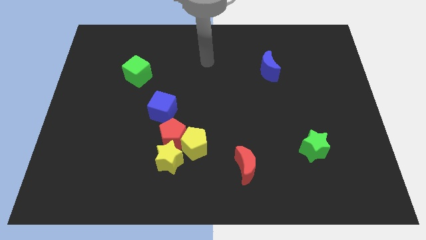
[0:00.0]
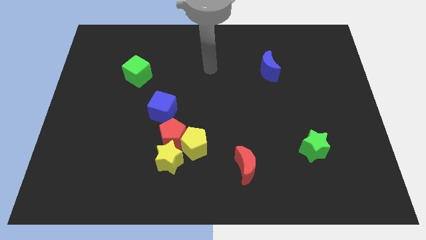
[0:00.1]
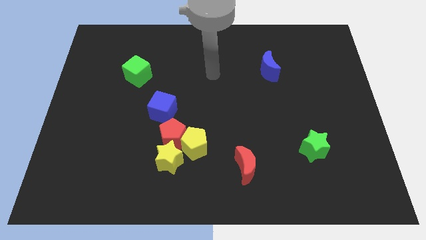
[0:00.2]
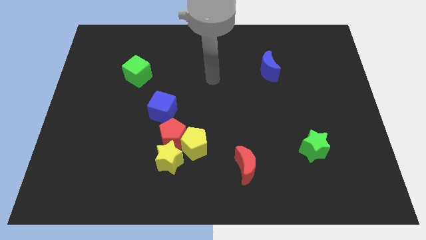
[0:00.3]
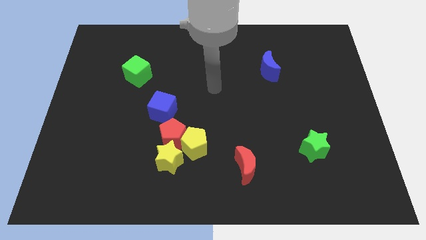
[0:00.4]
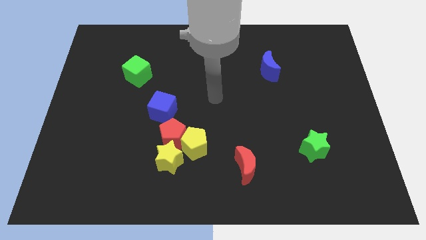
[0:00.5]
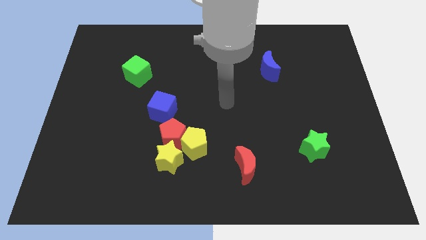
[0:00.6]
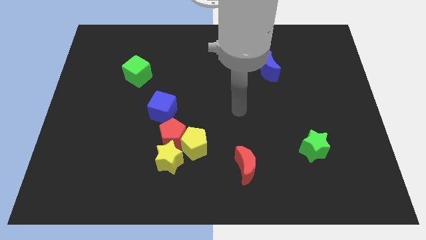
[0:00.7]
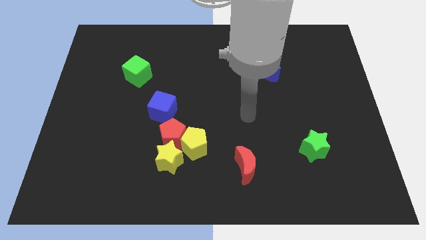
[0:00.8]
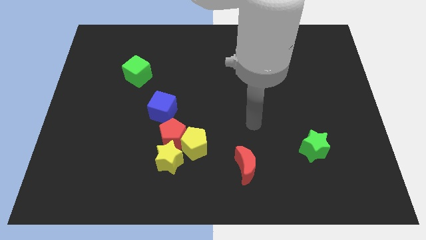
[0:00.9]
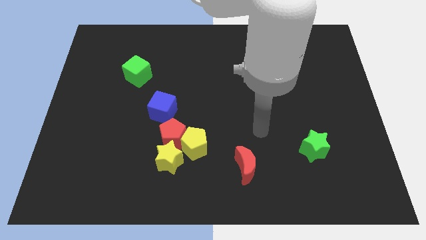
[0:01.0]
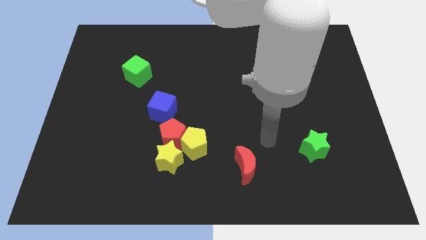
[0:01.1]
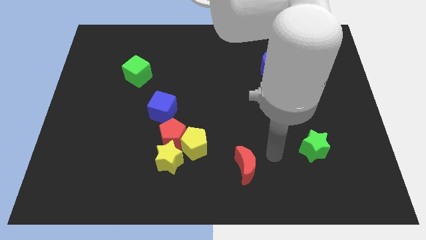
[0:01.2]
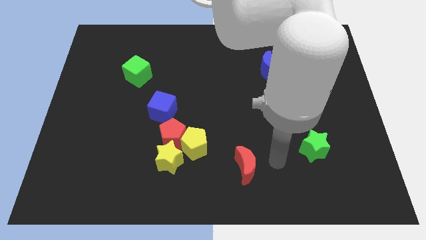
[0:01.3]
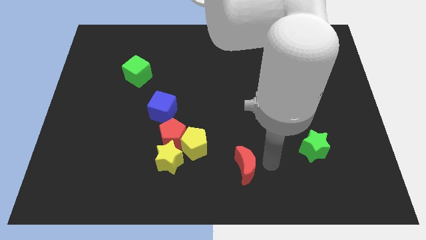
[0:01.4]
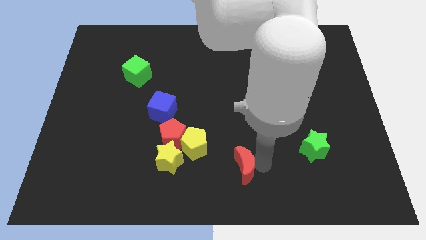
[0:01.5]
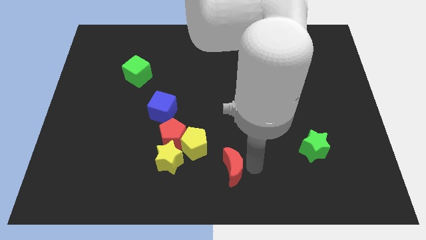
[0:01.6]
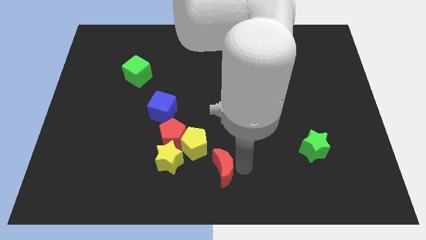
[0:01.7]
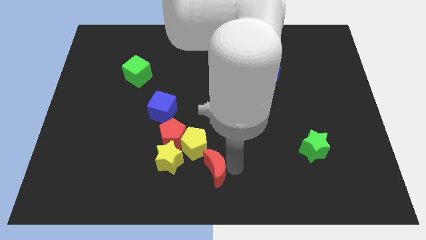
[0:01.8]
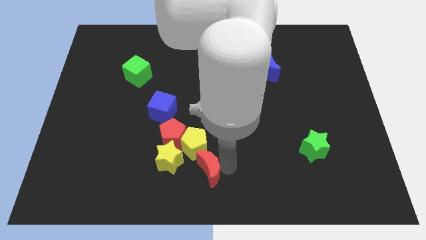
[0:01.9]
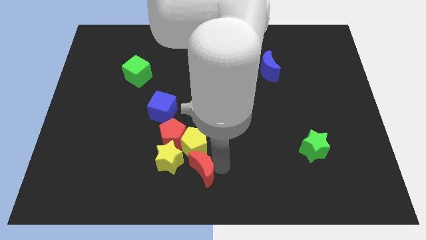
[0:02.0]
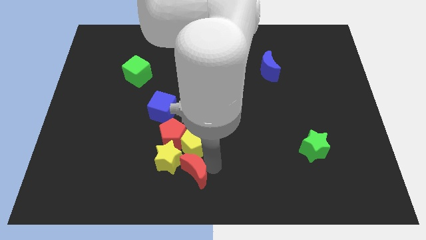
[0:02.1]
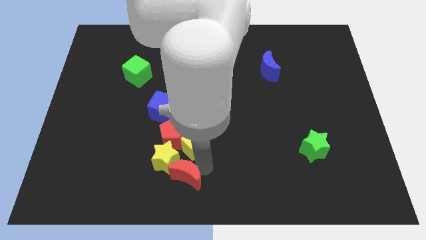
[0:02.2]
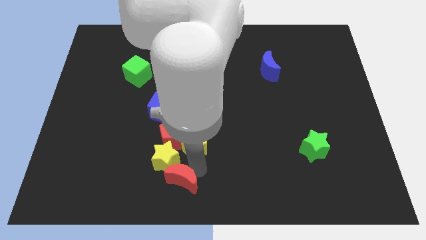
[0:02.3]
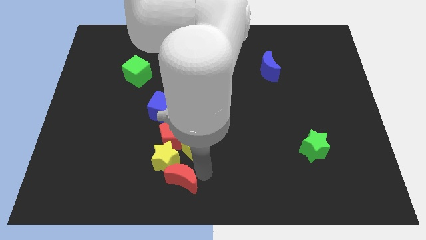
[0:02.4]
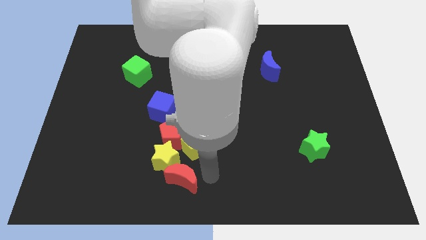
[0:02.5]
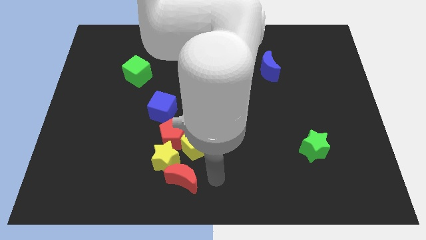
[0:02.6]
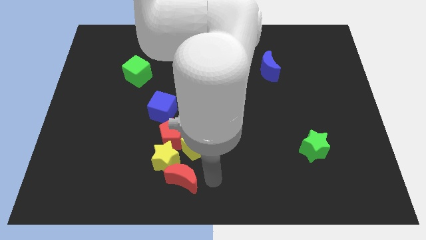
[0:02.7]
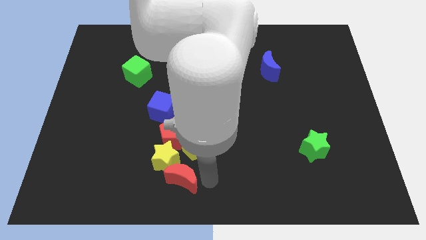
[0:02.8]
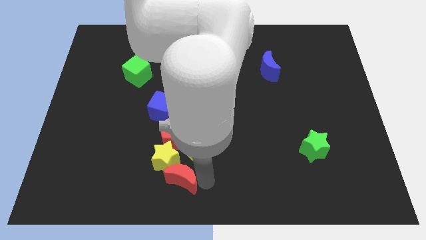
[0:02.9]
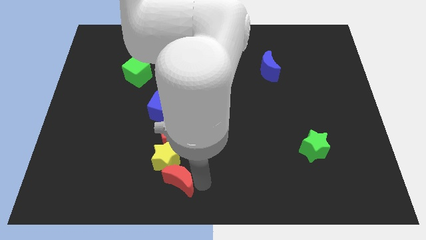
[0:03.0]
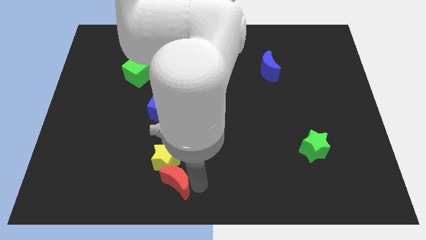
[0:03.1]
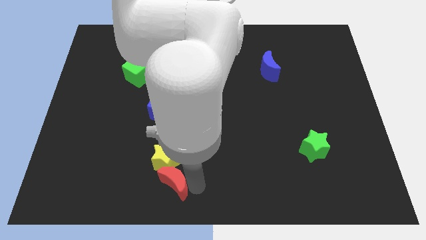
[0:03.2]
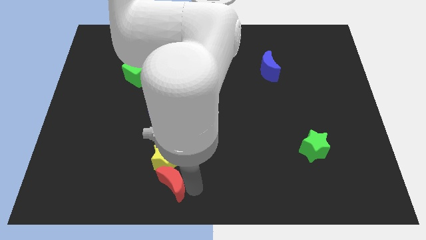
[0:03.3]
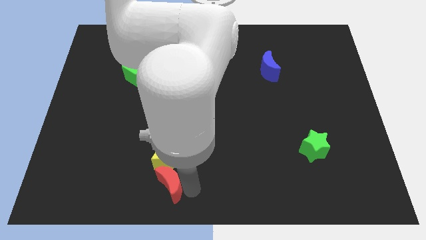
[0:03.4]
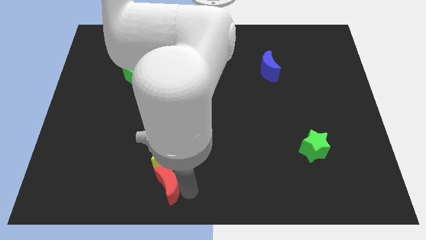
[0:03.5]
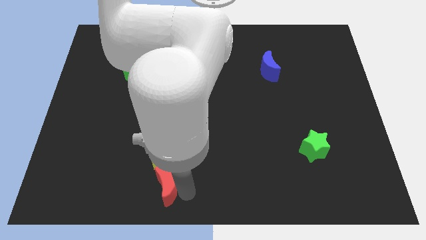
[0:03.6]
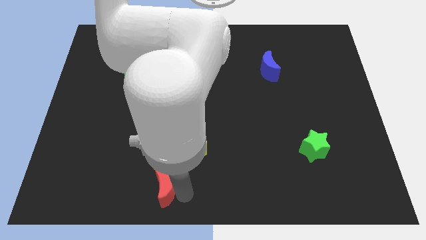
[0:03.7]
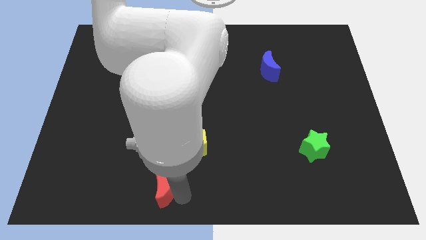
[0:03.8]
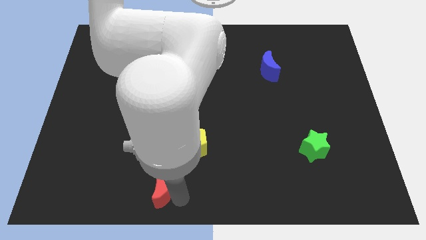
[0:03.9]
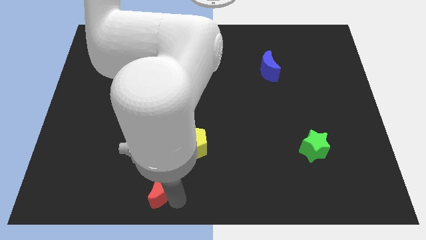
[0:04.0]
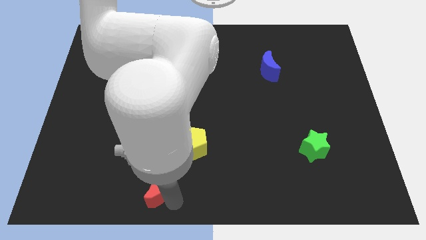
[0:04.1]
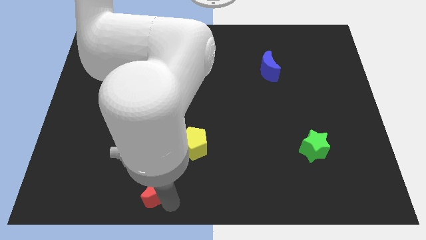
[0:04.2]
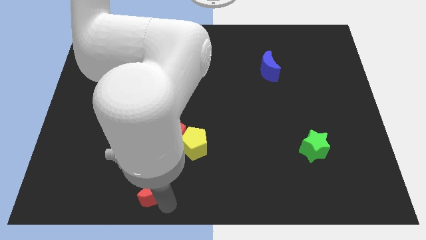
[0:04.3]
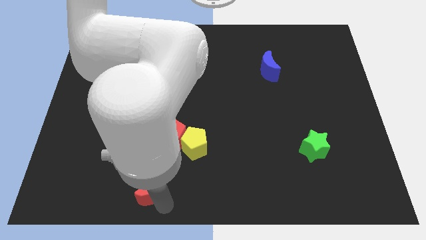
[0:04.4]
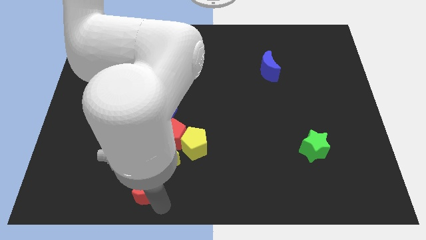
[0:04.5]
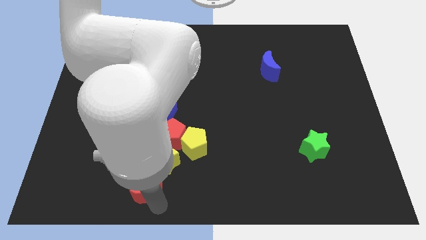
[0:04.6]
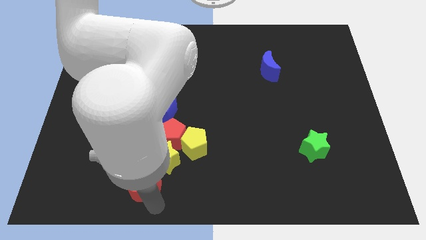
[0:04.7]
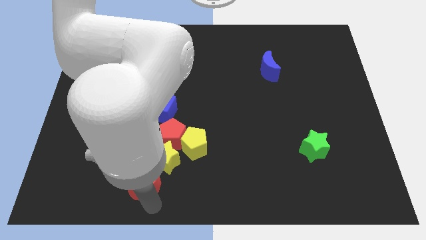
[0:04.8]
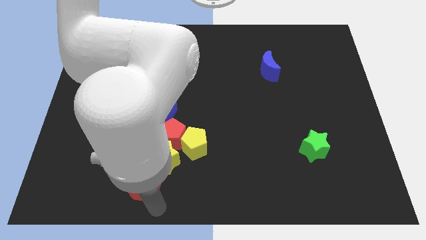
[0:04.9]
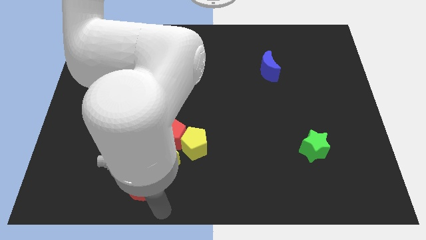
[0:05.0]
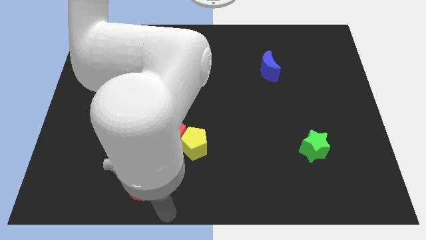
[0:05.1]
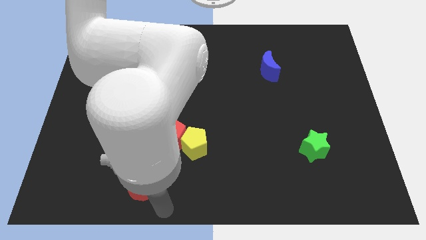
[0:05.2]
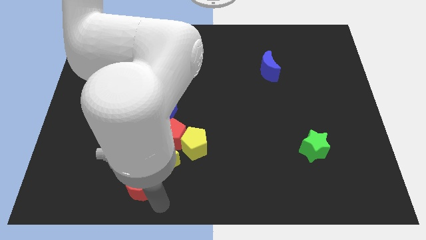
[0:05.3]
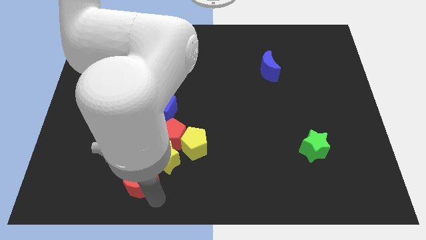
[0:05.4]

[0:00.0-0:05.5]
slide the red moon to the left

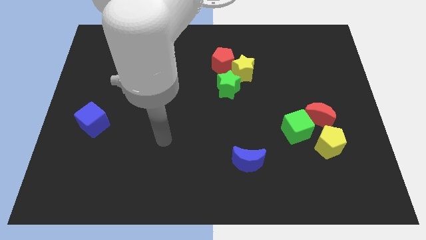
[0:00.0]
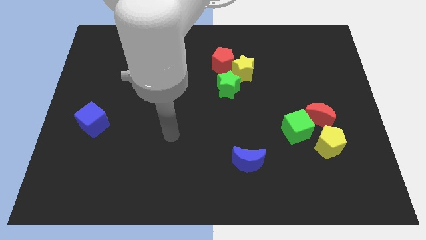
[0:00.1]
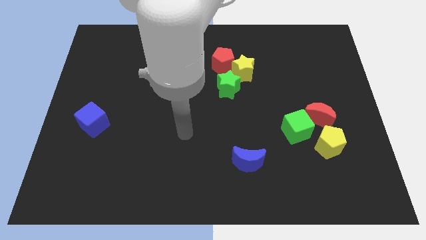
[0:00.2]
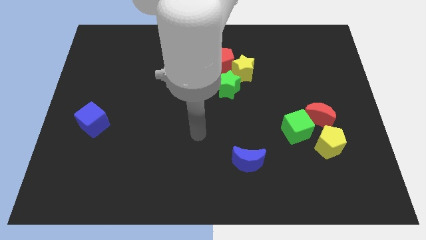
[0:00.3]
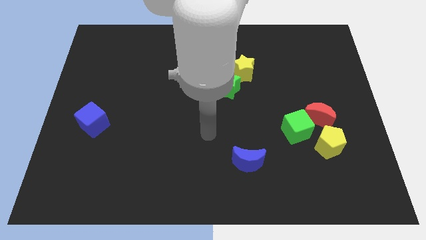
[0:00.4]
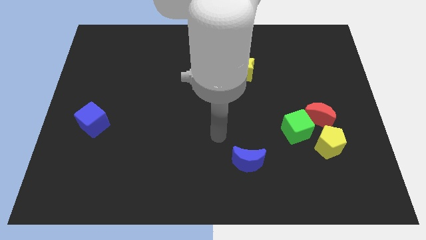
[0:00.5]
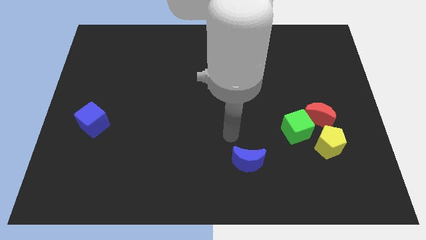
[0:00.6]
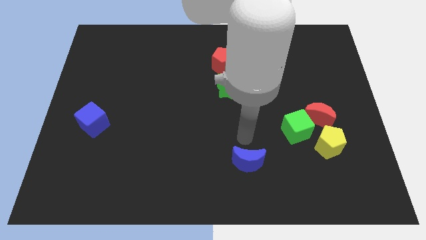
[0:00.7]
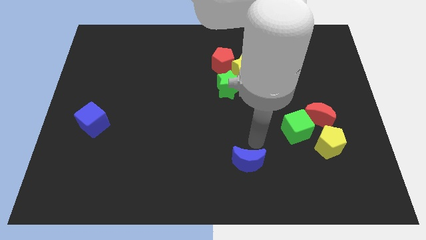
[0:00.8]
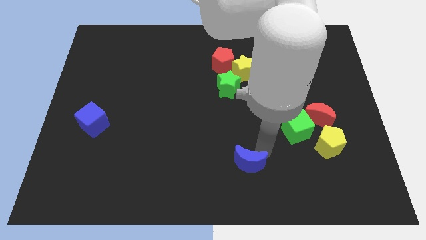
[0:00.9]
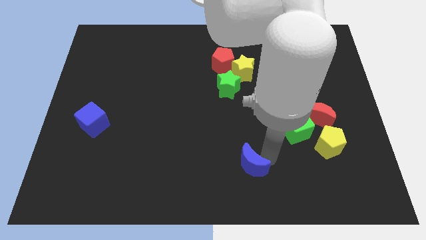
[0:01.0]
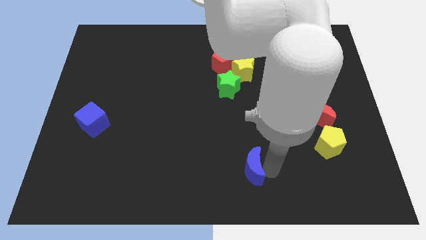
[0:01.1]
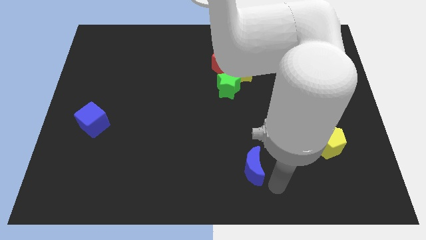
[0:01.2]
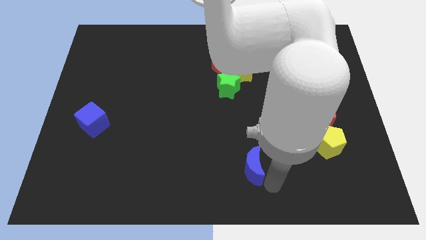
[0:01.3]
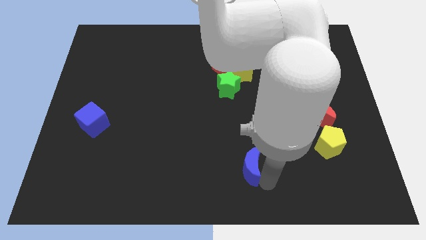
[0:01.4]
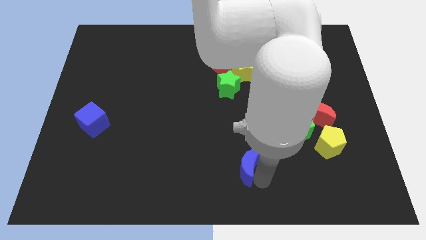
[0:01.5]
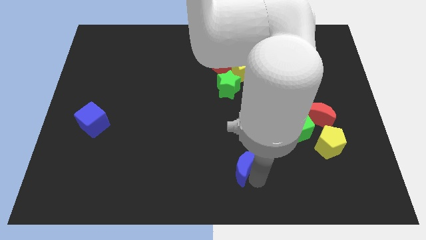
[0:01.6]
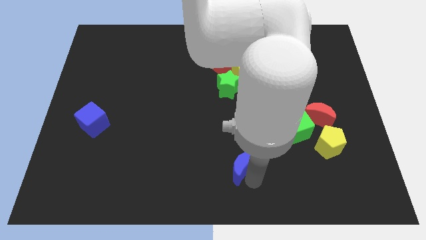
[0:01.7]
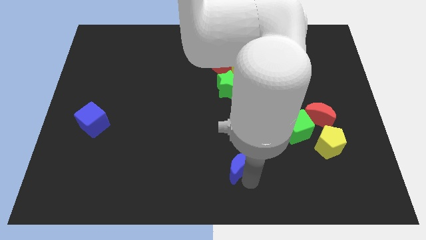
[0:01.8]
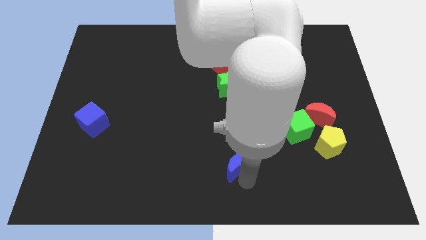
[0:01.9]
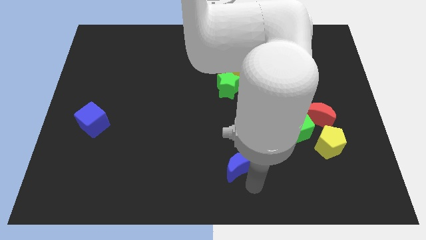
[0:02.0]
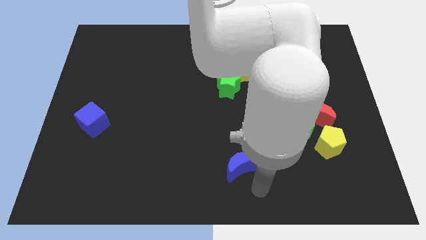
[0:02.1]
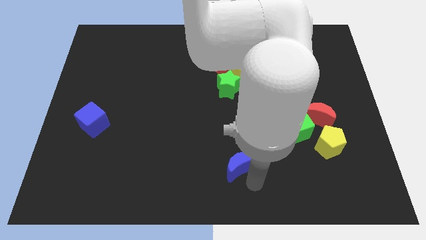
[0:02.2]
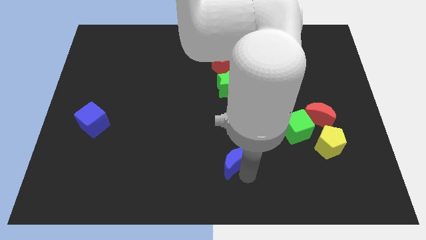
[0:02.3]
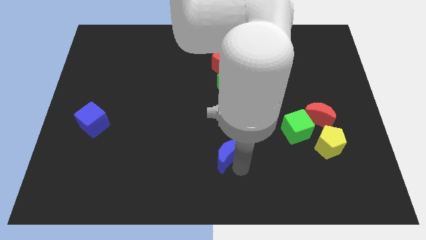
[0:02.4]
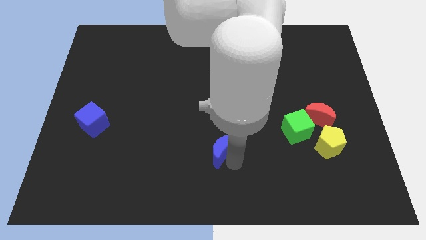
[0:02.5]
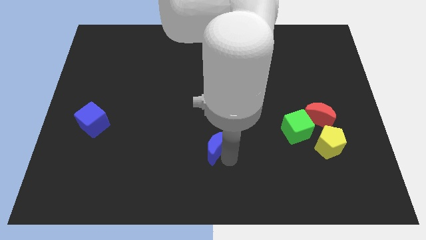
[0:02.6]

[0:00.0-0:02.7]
slightly move the blue moon up and to the left diagonally
